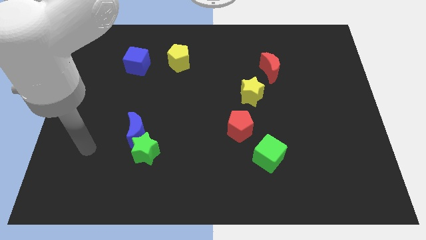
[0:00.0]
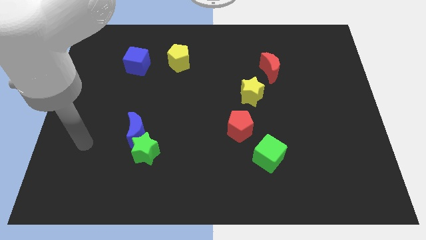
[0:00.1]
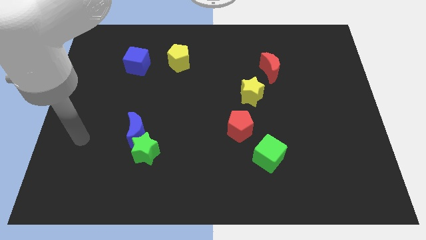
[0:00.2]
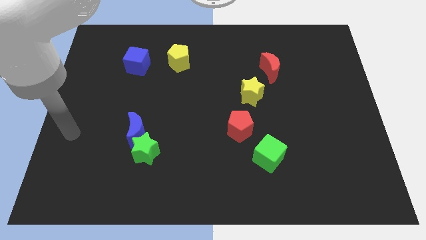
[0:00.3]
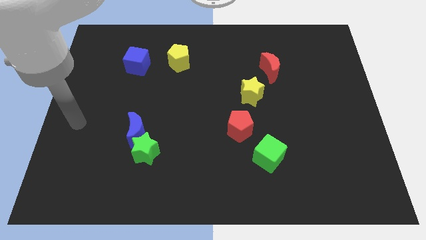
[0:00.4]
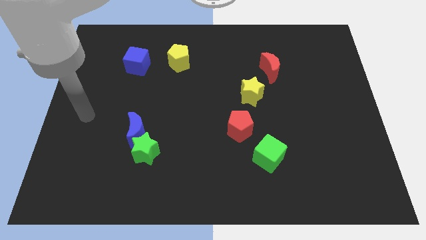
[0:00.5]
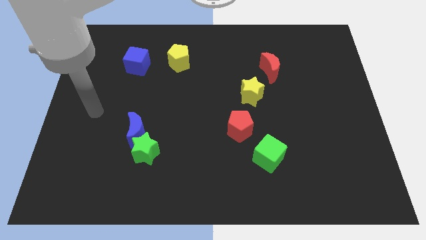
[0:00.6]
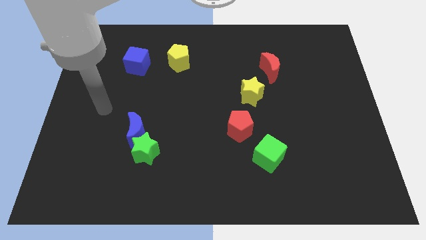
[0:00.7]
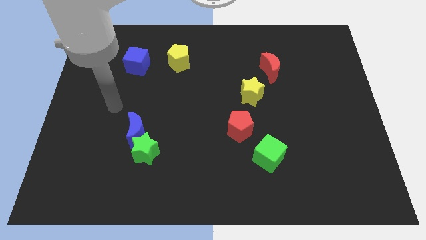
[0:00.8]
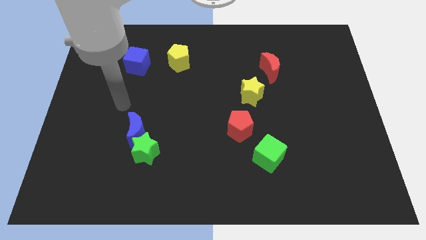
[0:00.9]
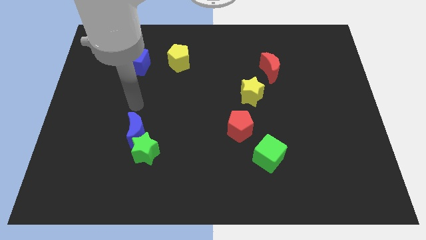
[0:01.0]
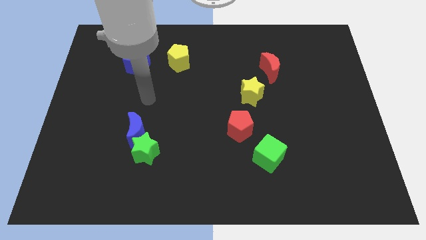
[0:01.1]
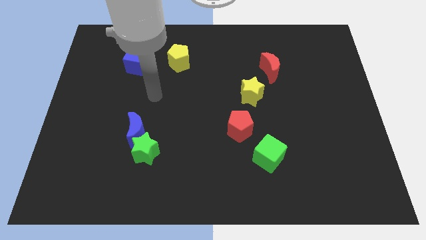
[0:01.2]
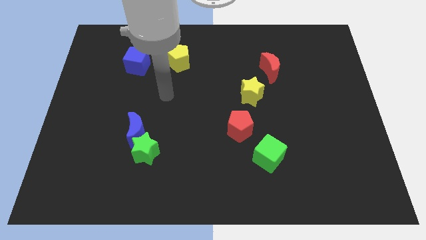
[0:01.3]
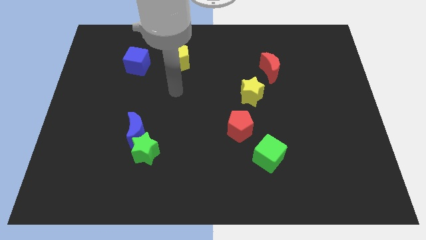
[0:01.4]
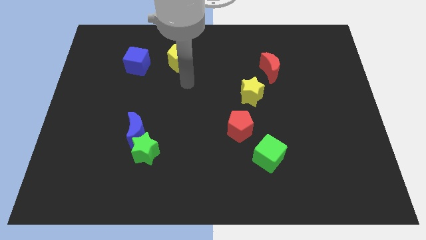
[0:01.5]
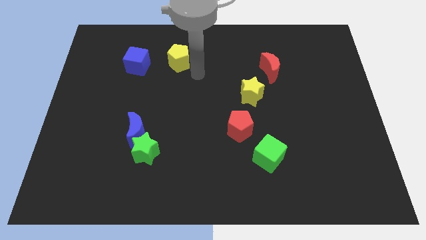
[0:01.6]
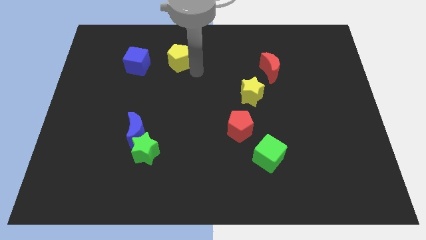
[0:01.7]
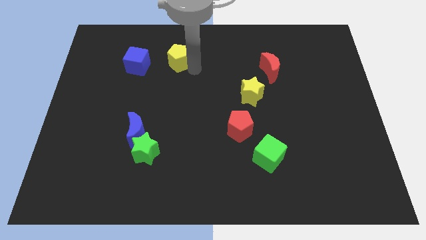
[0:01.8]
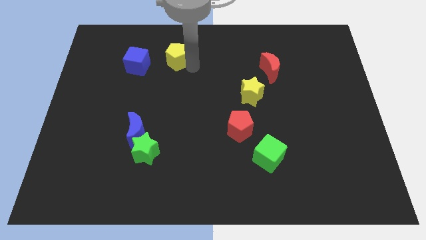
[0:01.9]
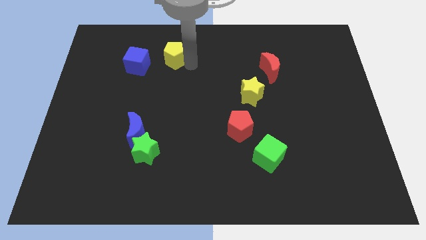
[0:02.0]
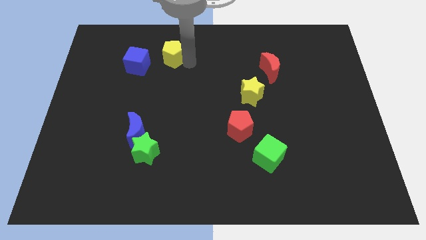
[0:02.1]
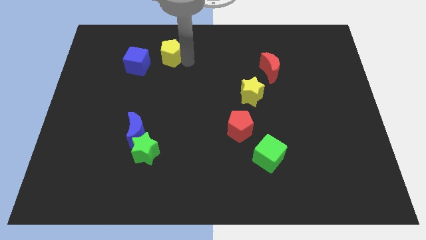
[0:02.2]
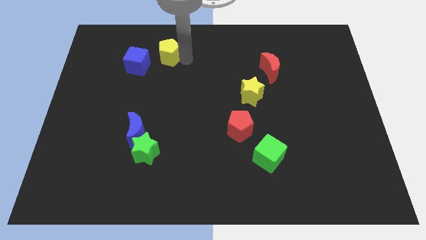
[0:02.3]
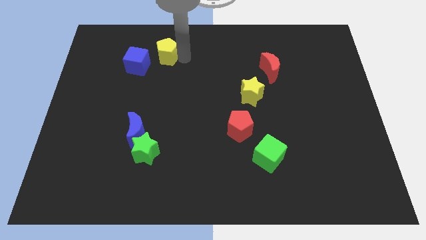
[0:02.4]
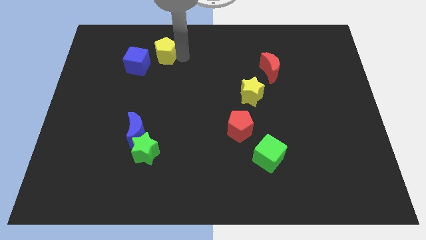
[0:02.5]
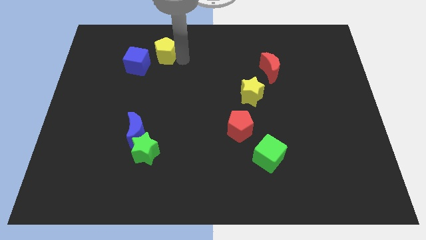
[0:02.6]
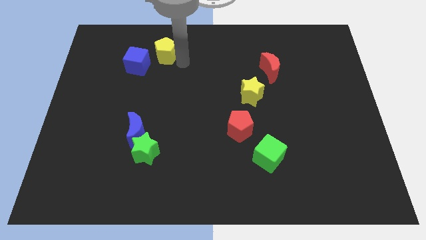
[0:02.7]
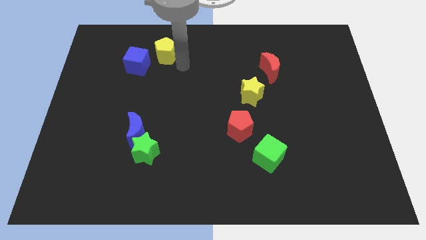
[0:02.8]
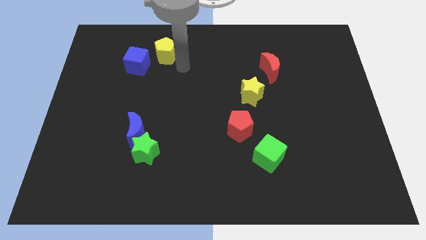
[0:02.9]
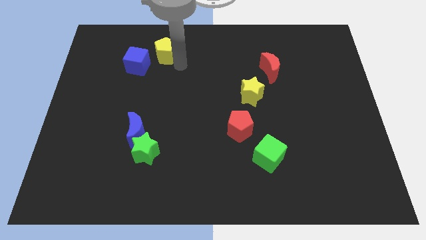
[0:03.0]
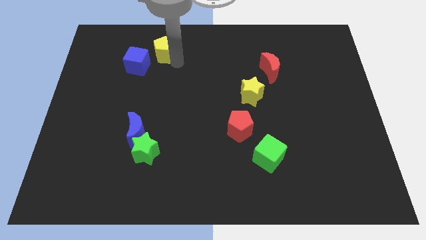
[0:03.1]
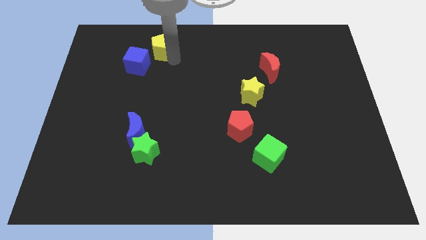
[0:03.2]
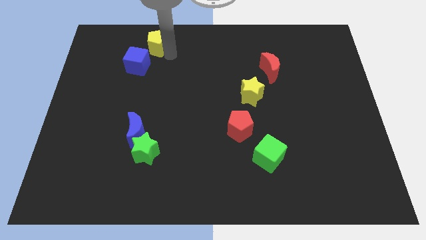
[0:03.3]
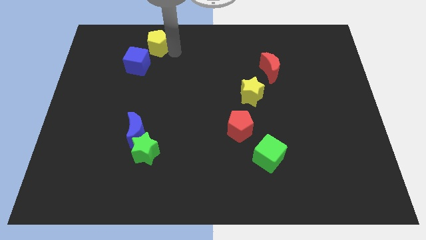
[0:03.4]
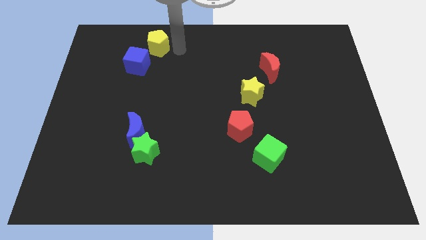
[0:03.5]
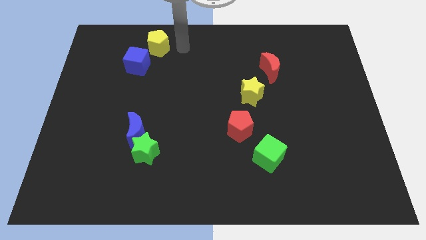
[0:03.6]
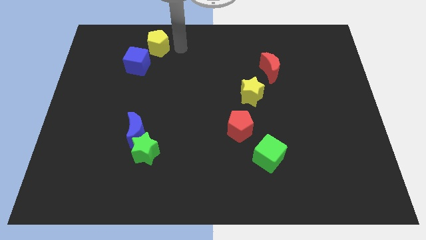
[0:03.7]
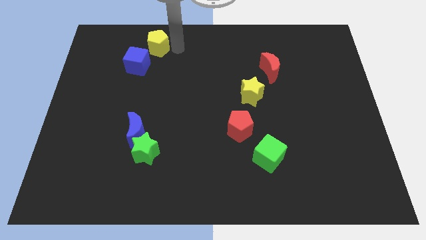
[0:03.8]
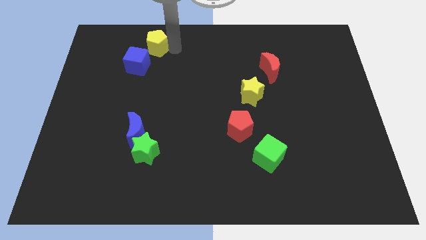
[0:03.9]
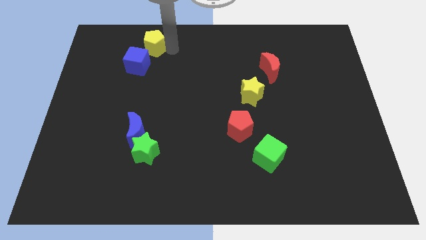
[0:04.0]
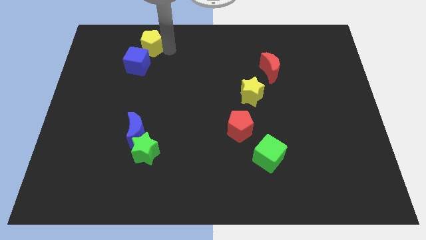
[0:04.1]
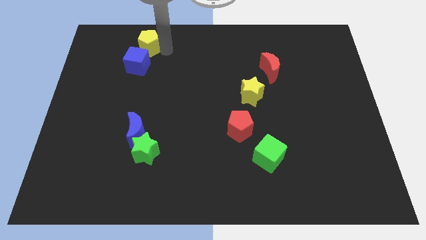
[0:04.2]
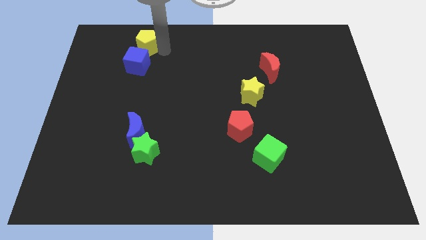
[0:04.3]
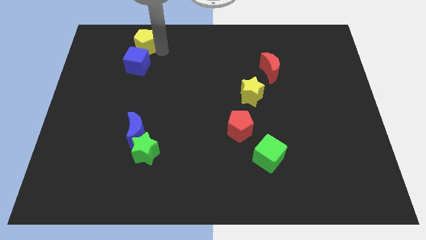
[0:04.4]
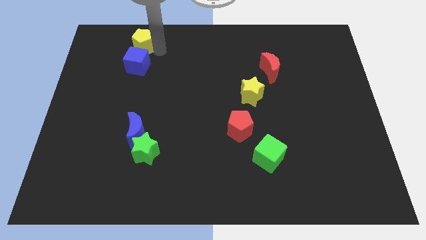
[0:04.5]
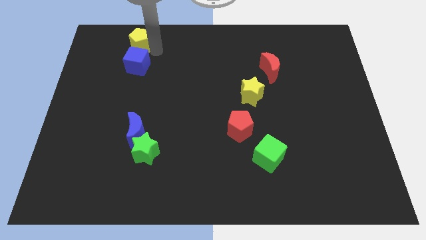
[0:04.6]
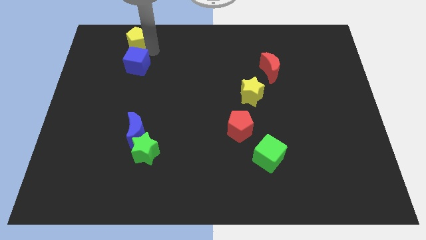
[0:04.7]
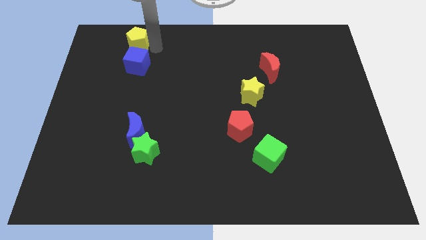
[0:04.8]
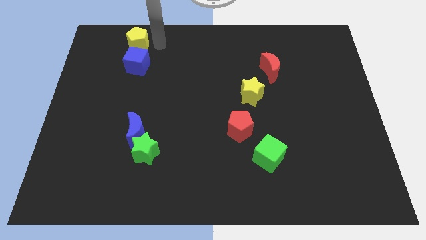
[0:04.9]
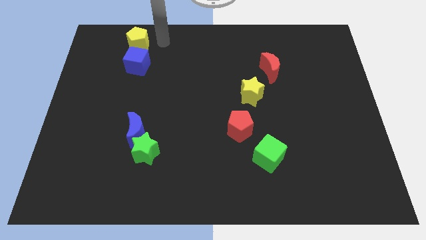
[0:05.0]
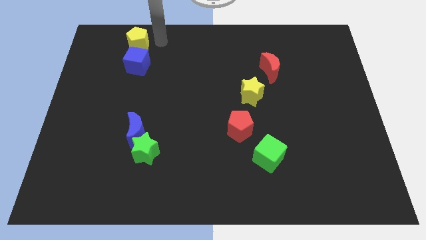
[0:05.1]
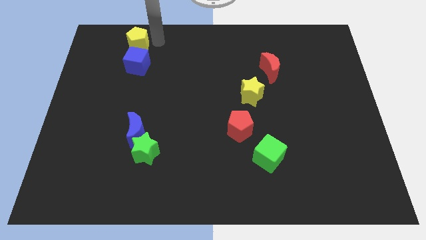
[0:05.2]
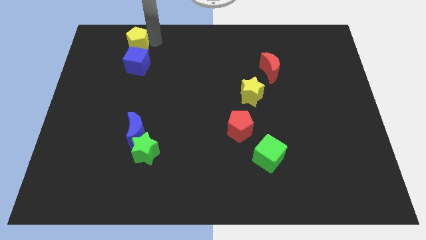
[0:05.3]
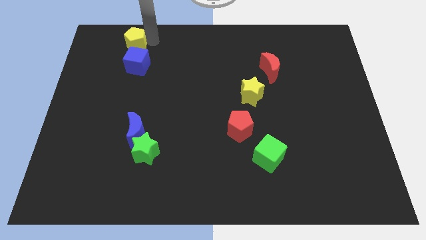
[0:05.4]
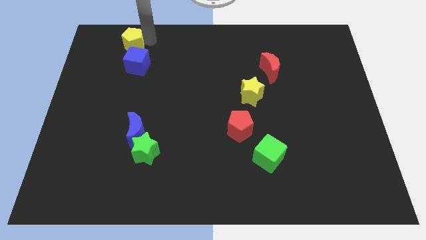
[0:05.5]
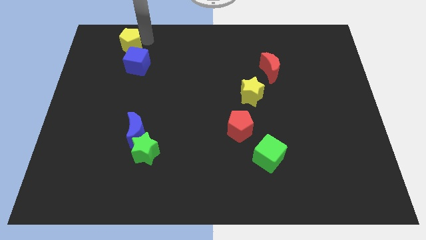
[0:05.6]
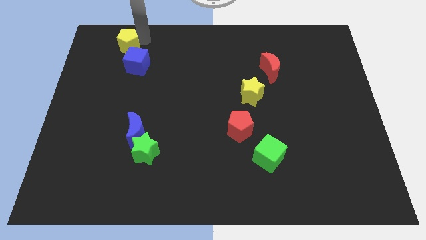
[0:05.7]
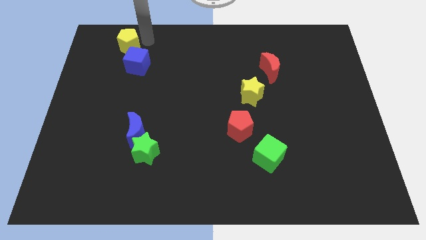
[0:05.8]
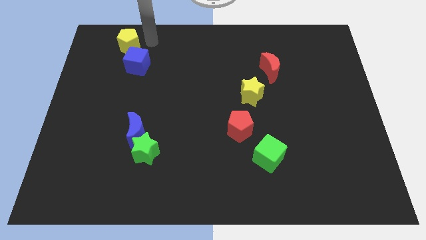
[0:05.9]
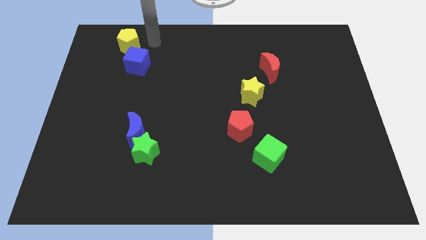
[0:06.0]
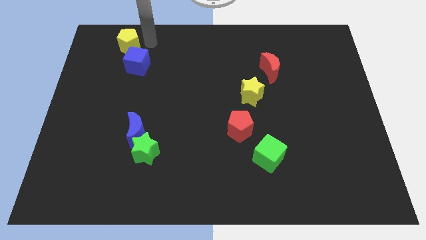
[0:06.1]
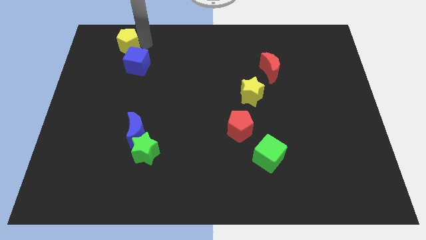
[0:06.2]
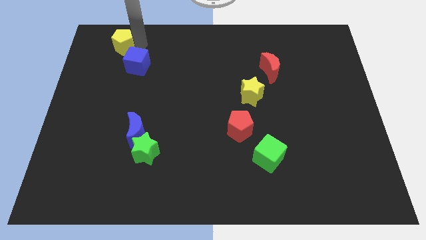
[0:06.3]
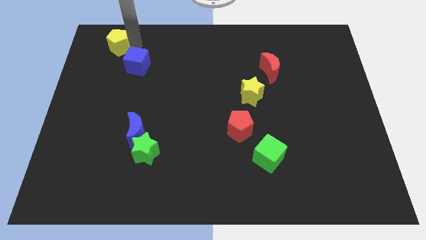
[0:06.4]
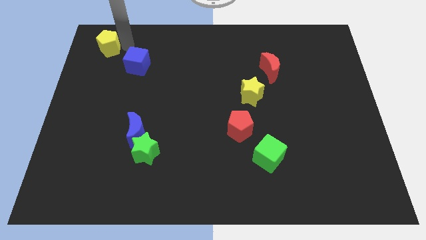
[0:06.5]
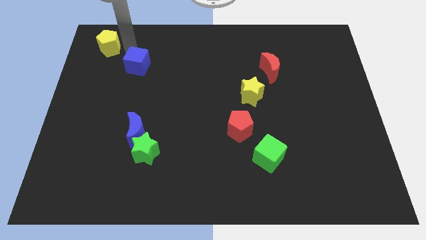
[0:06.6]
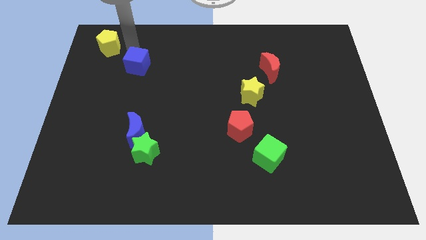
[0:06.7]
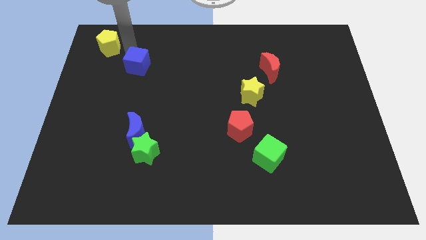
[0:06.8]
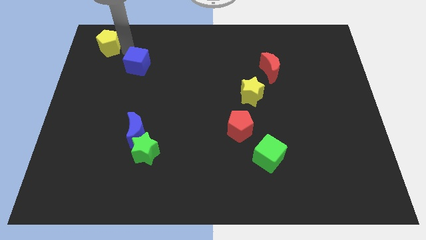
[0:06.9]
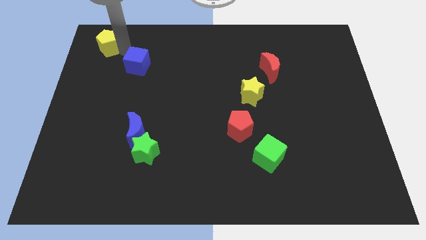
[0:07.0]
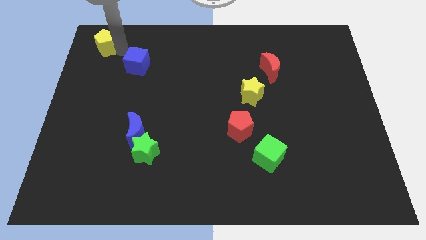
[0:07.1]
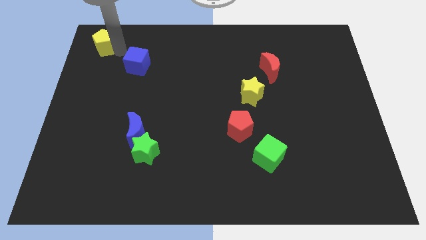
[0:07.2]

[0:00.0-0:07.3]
move the yellow pentagon to the top left
